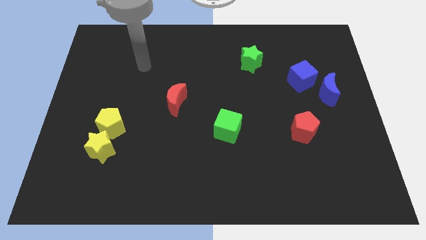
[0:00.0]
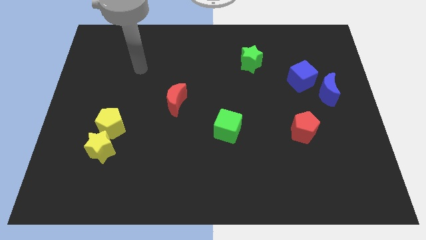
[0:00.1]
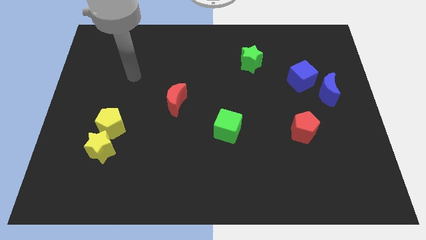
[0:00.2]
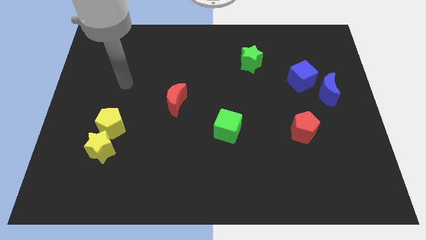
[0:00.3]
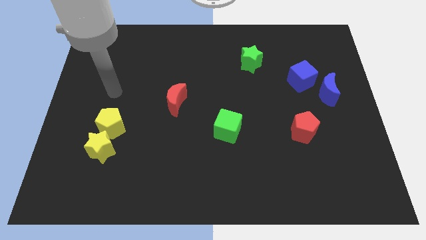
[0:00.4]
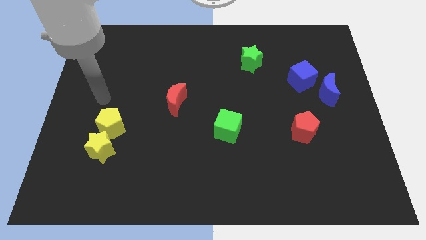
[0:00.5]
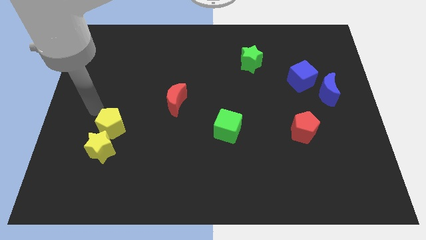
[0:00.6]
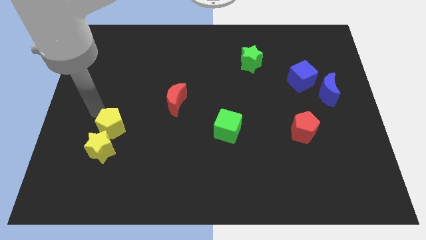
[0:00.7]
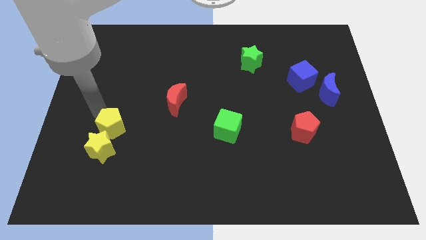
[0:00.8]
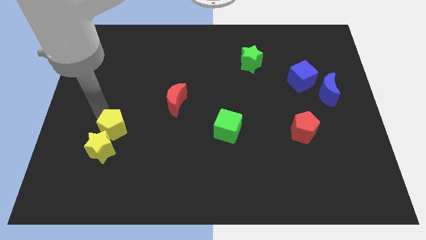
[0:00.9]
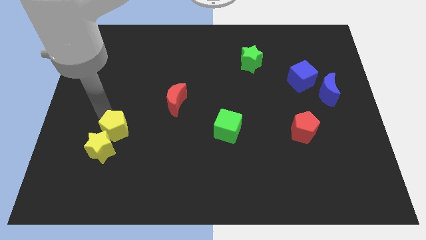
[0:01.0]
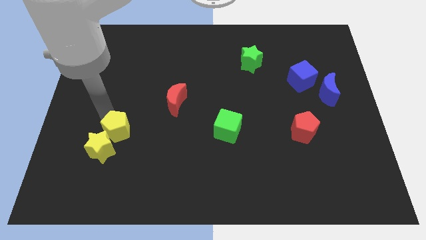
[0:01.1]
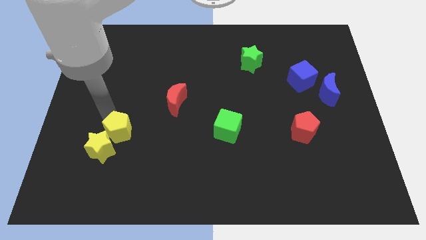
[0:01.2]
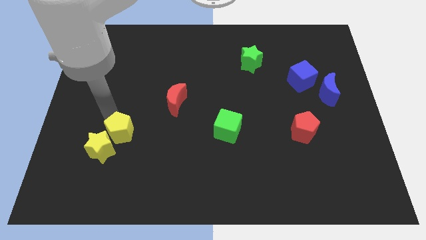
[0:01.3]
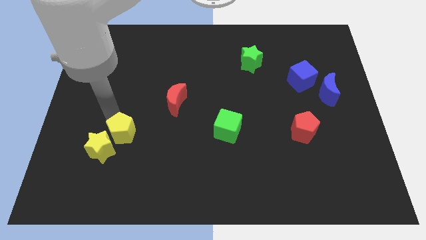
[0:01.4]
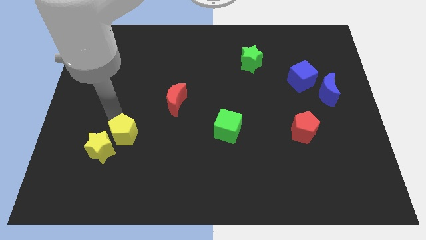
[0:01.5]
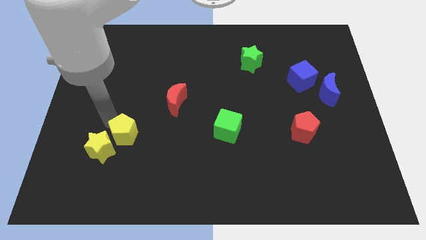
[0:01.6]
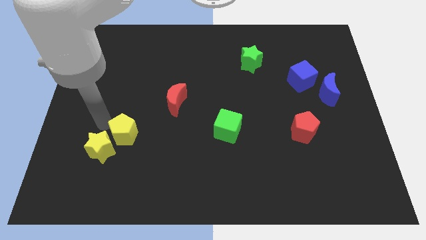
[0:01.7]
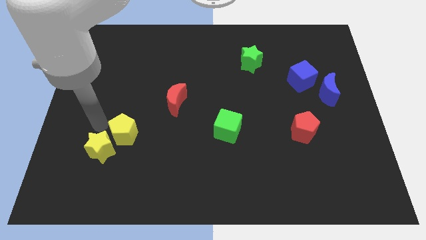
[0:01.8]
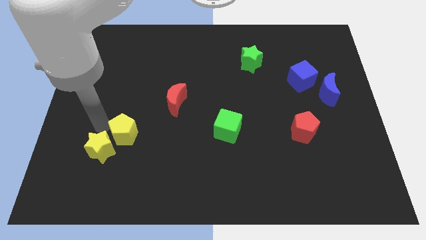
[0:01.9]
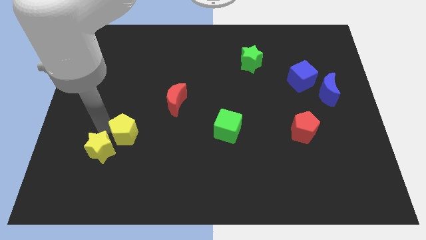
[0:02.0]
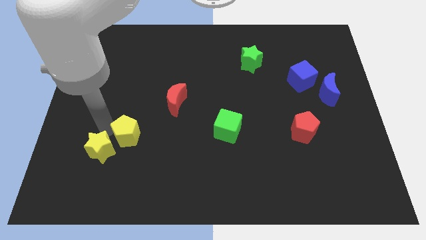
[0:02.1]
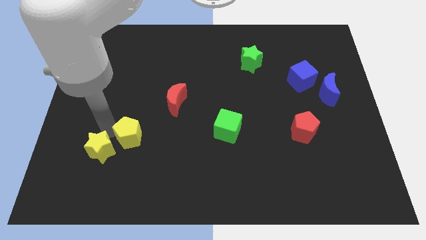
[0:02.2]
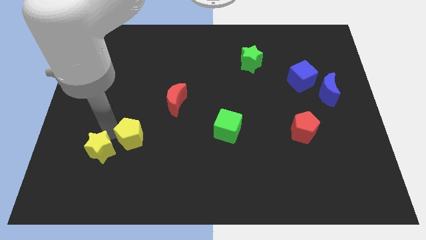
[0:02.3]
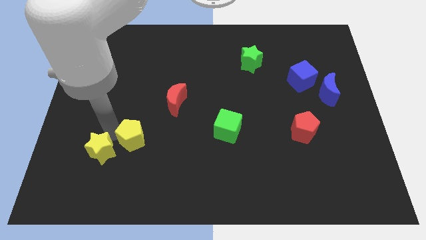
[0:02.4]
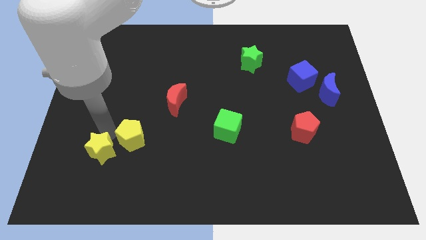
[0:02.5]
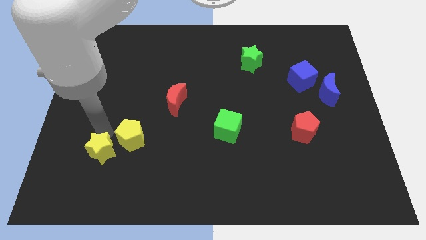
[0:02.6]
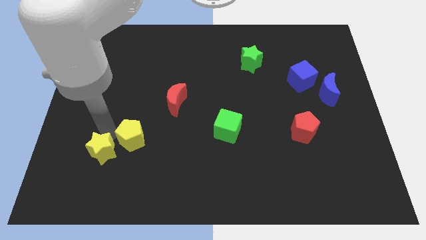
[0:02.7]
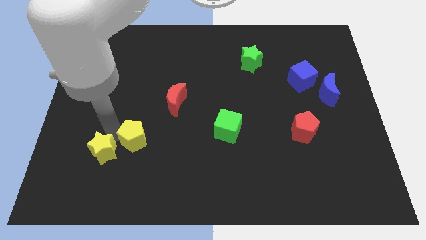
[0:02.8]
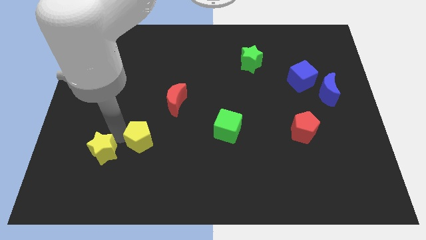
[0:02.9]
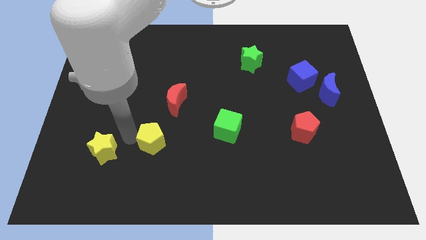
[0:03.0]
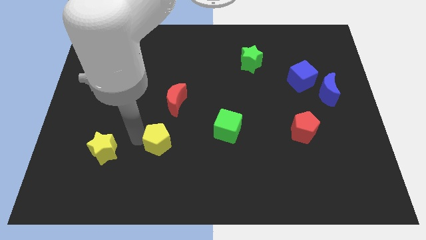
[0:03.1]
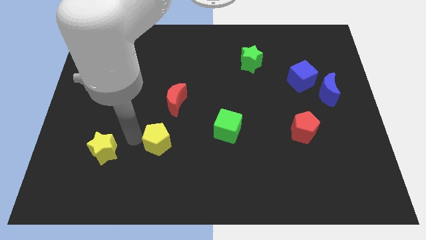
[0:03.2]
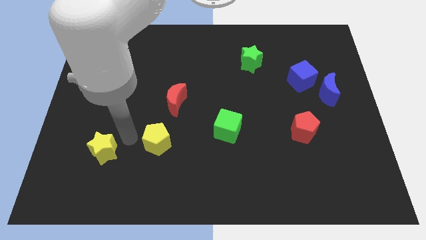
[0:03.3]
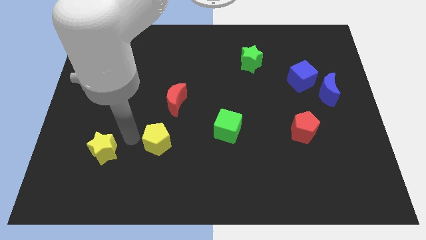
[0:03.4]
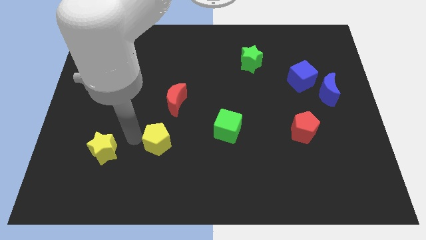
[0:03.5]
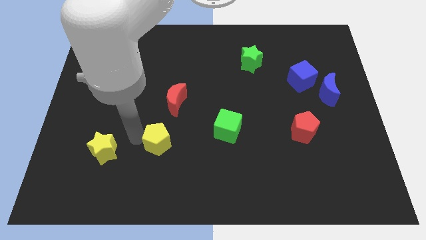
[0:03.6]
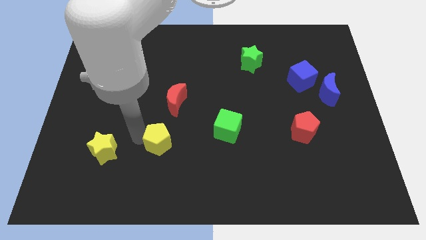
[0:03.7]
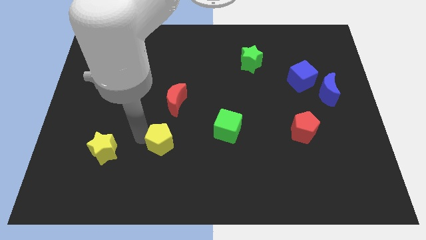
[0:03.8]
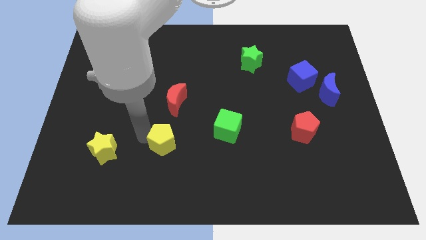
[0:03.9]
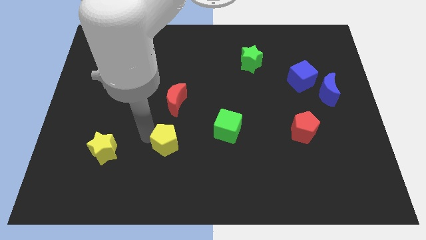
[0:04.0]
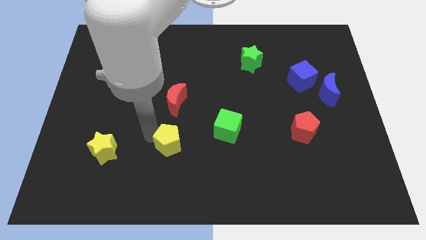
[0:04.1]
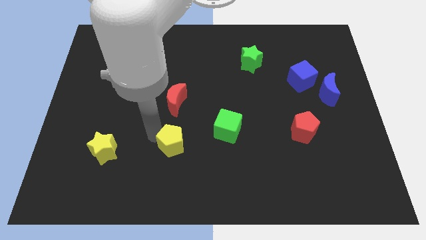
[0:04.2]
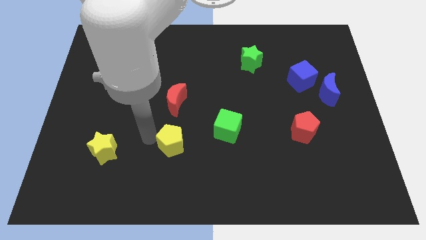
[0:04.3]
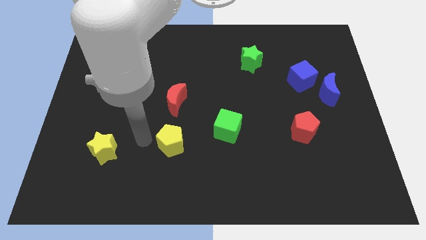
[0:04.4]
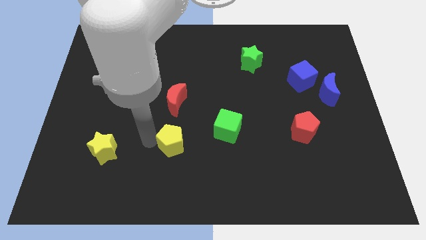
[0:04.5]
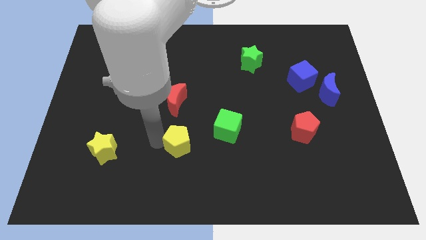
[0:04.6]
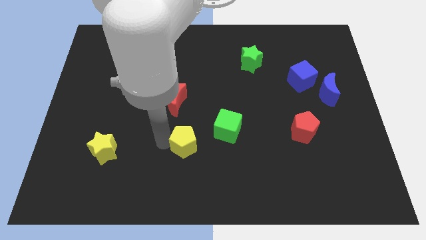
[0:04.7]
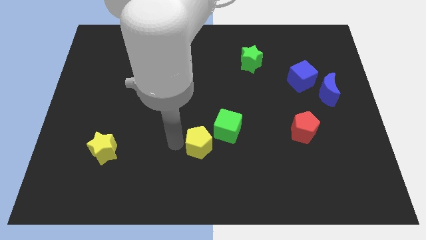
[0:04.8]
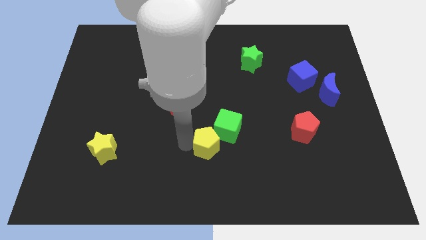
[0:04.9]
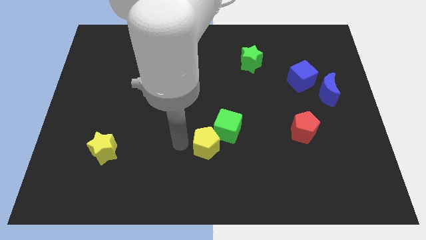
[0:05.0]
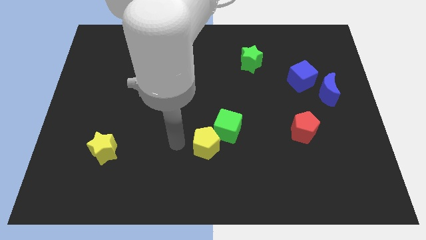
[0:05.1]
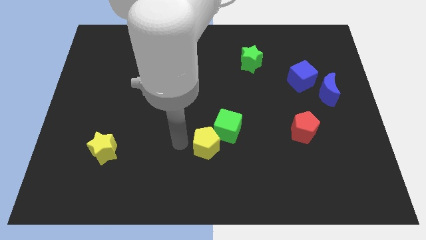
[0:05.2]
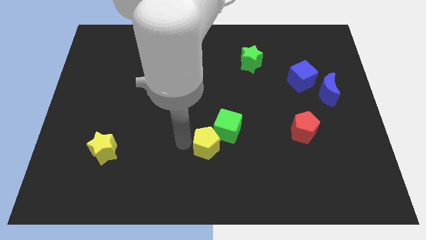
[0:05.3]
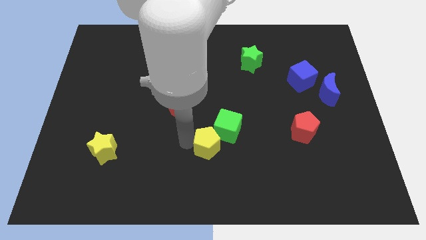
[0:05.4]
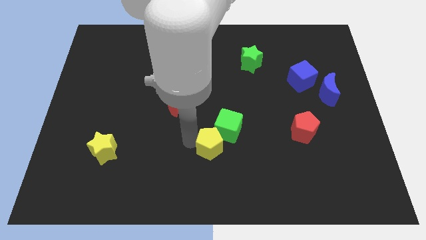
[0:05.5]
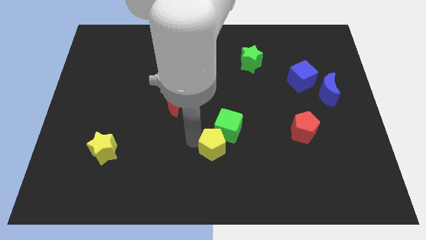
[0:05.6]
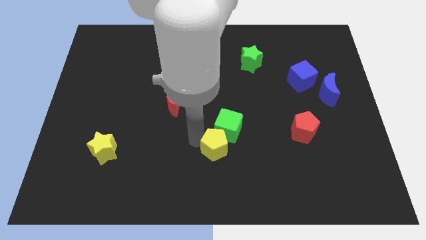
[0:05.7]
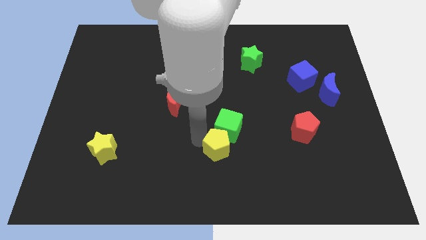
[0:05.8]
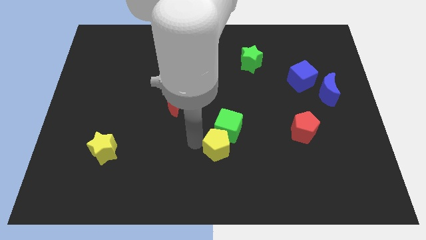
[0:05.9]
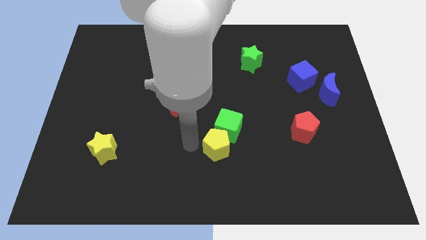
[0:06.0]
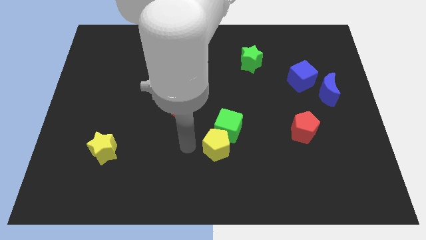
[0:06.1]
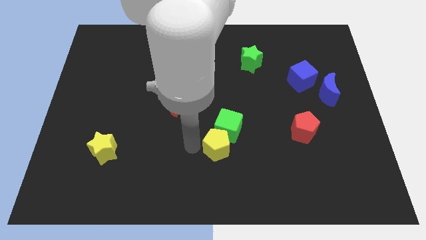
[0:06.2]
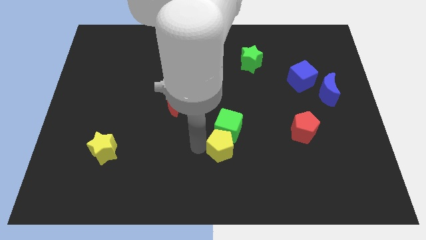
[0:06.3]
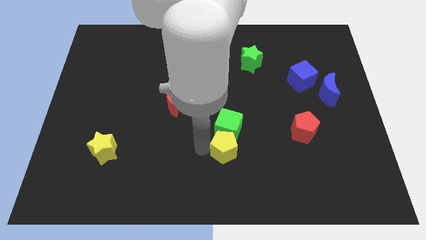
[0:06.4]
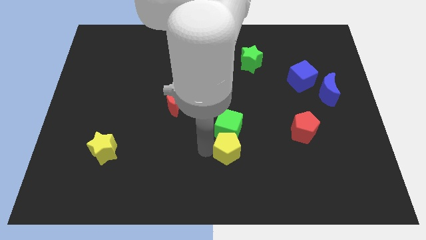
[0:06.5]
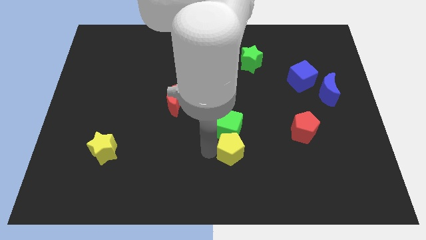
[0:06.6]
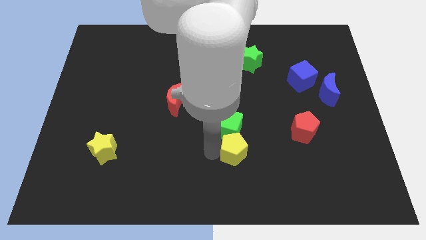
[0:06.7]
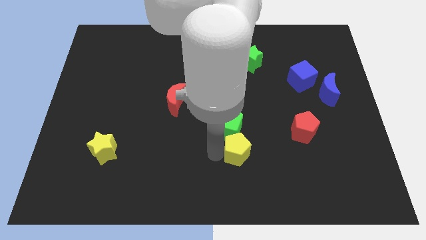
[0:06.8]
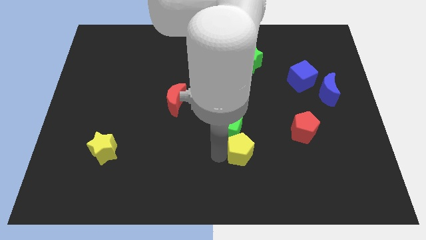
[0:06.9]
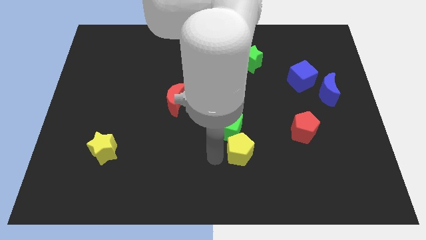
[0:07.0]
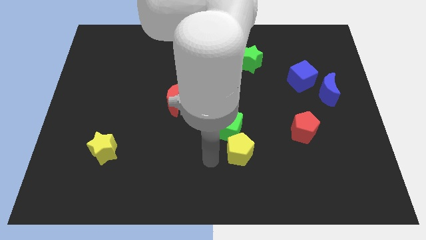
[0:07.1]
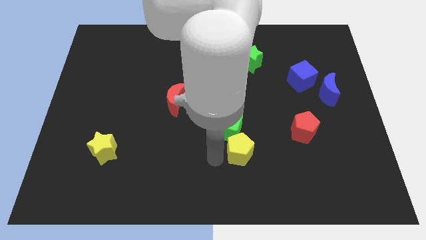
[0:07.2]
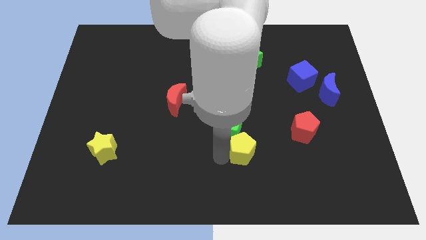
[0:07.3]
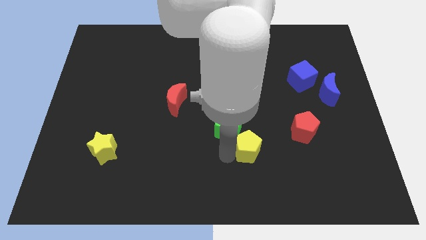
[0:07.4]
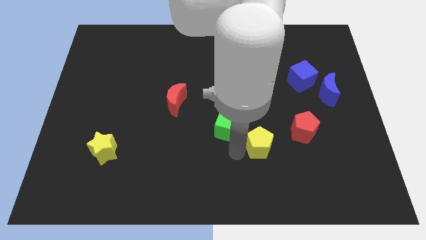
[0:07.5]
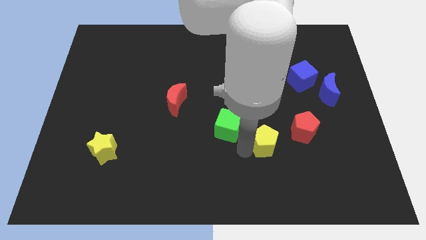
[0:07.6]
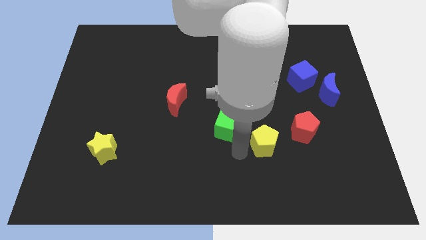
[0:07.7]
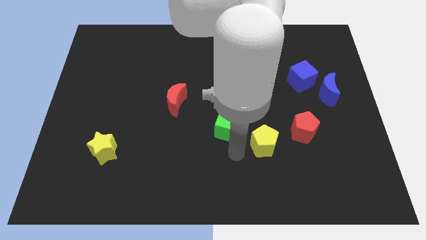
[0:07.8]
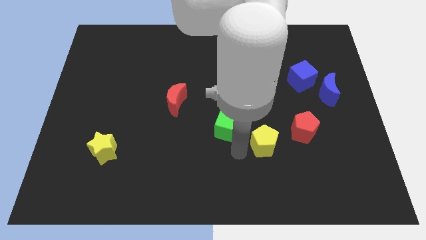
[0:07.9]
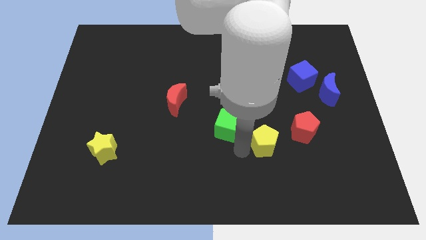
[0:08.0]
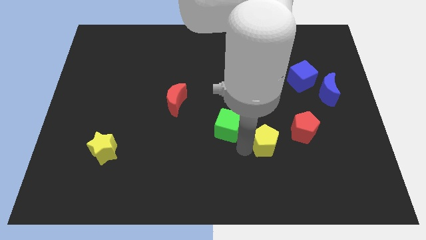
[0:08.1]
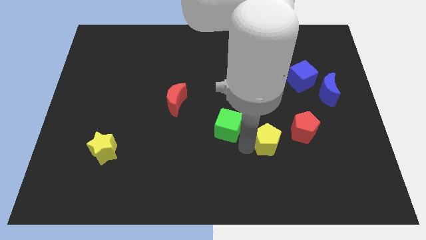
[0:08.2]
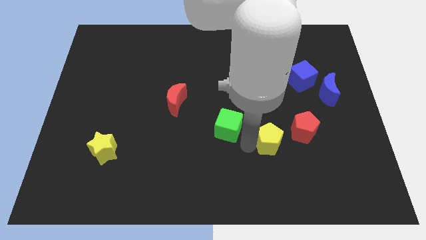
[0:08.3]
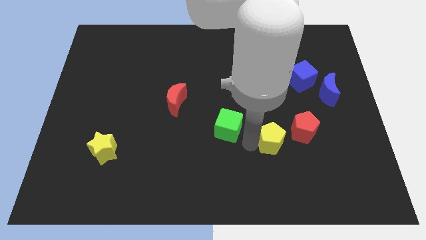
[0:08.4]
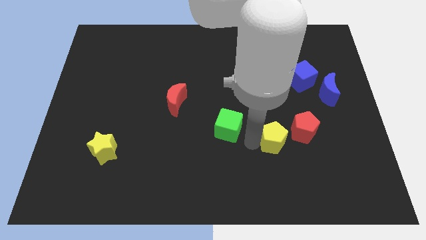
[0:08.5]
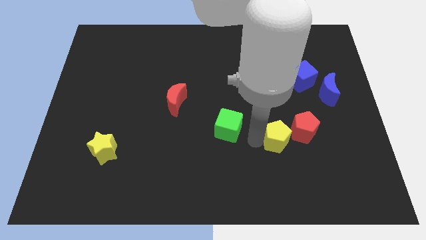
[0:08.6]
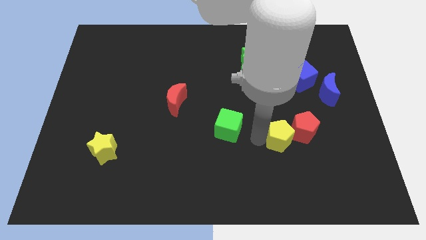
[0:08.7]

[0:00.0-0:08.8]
slide the yellow pentagon close to the red pentagon
